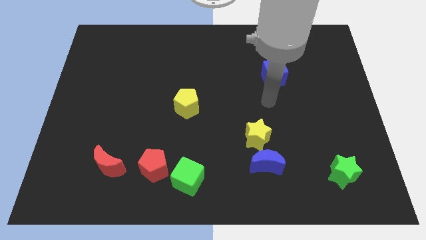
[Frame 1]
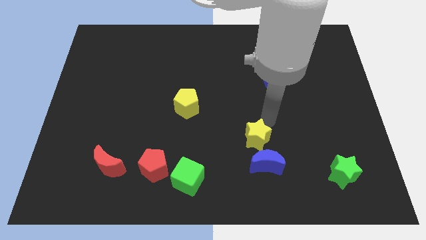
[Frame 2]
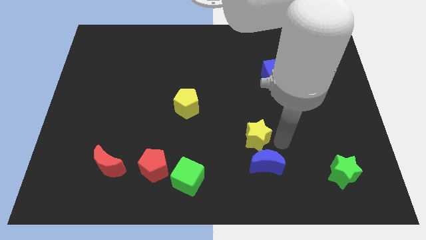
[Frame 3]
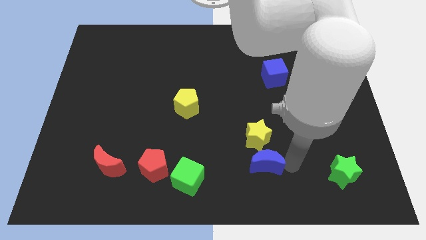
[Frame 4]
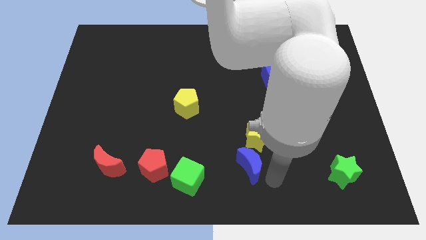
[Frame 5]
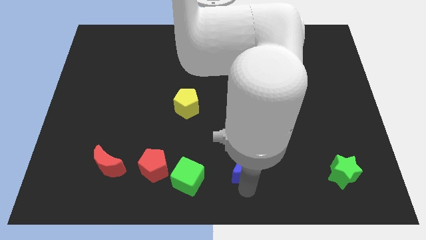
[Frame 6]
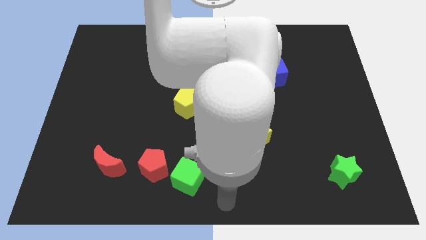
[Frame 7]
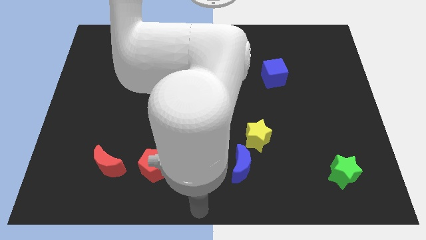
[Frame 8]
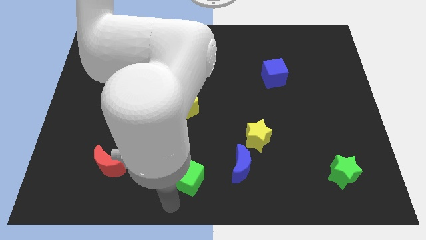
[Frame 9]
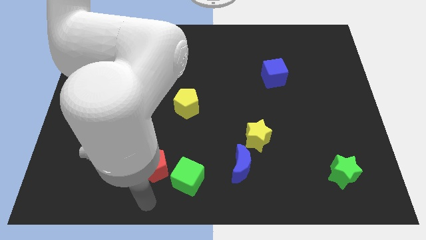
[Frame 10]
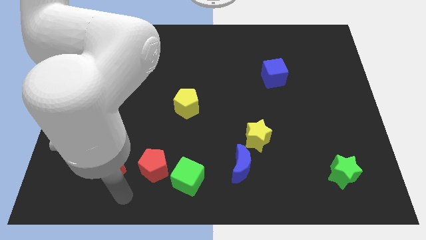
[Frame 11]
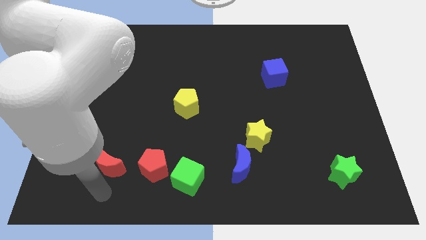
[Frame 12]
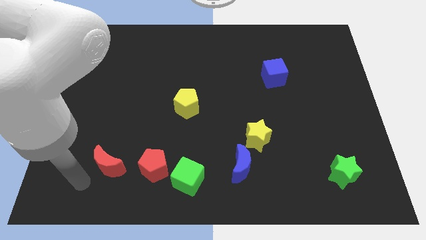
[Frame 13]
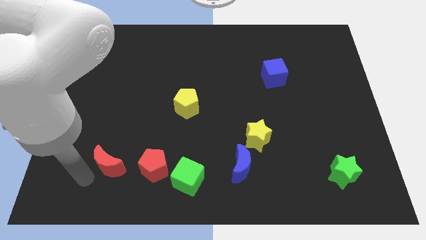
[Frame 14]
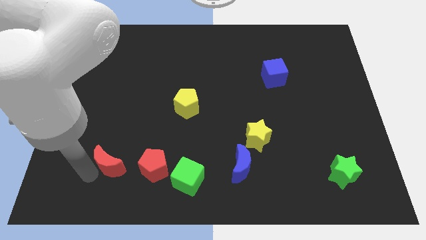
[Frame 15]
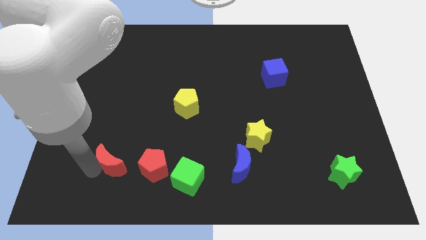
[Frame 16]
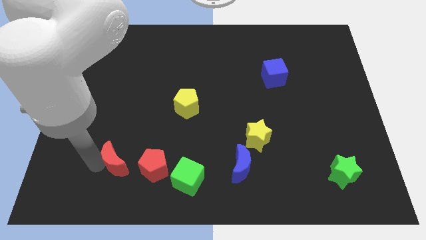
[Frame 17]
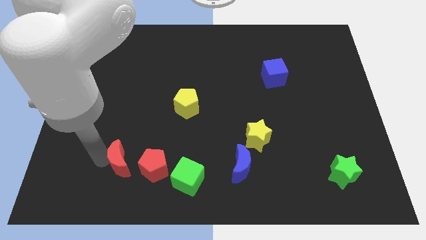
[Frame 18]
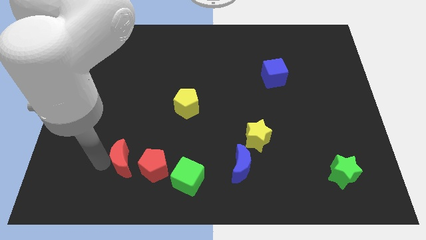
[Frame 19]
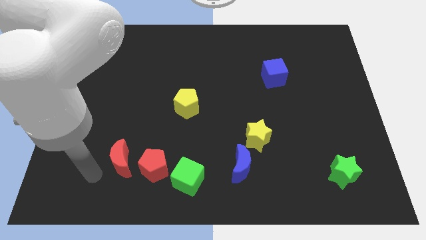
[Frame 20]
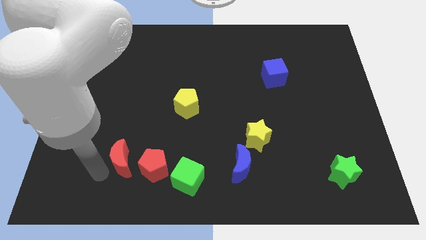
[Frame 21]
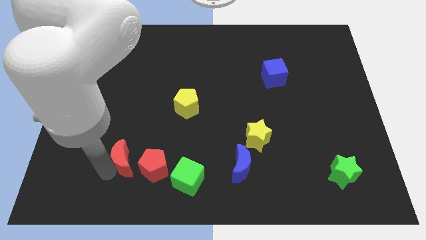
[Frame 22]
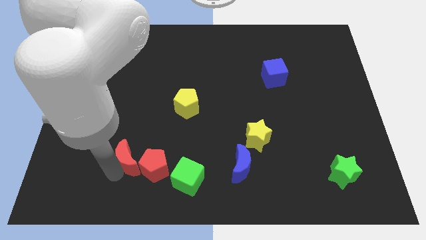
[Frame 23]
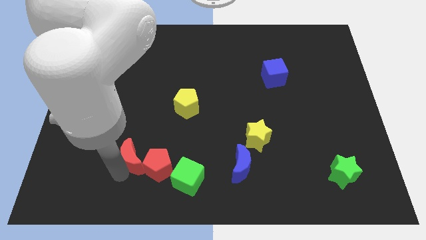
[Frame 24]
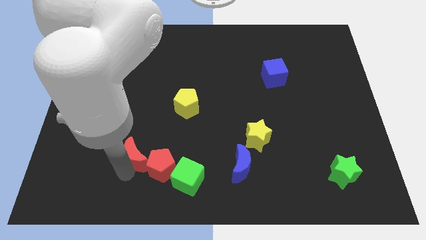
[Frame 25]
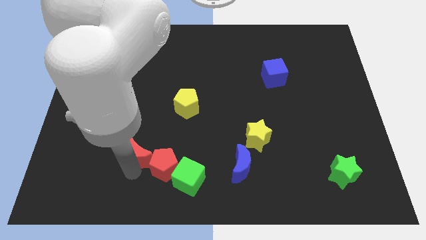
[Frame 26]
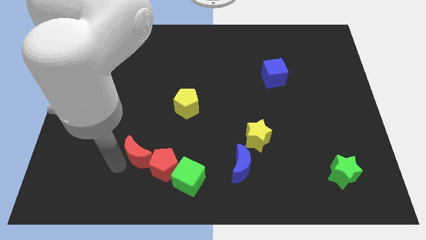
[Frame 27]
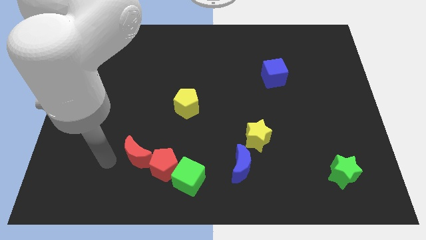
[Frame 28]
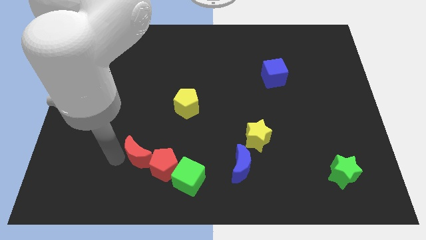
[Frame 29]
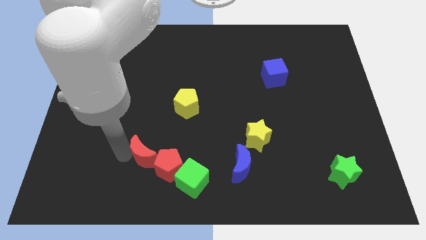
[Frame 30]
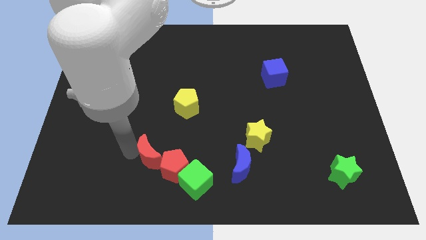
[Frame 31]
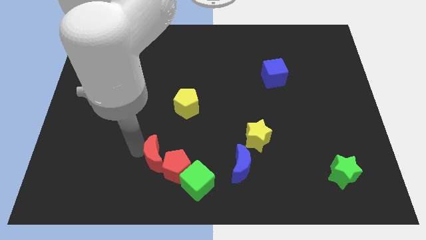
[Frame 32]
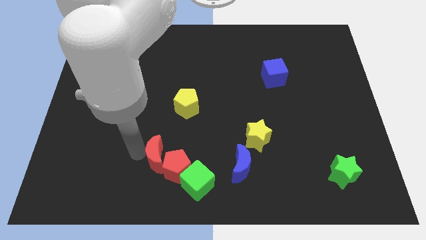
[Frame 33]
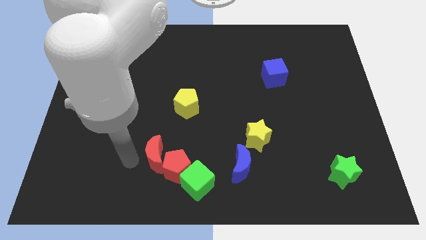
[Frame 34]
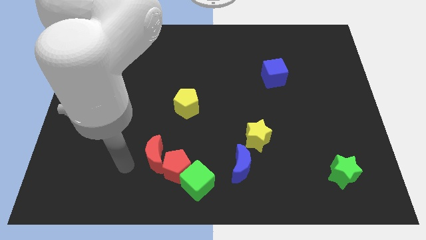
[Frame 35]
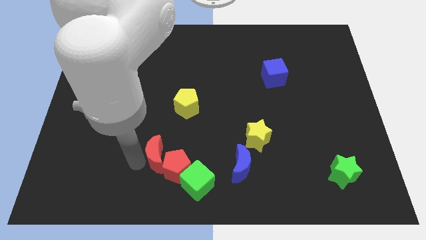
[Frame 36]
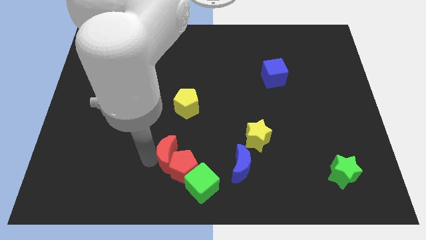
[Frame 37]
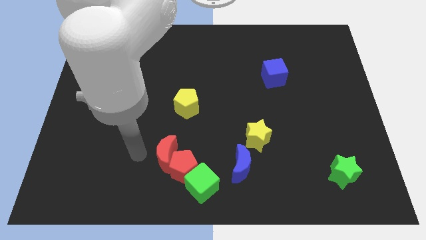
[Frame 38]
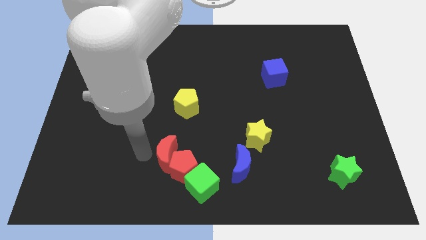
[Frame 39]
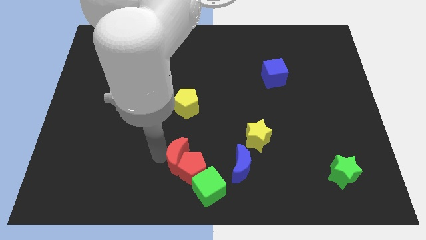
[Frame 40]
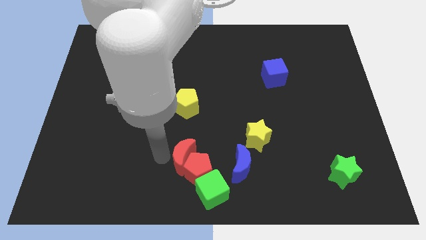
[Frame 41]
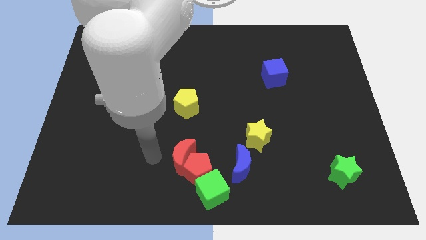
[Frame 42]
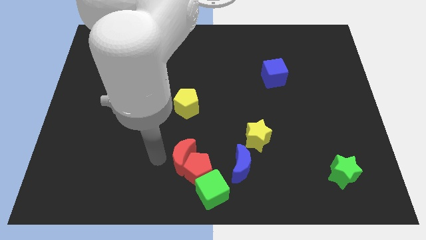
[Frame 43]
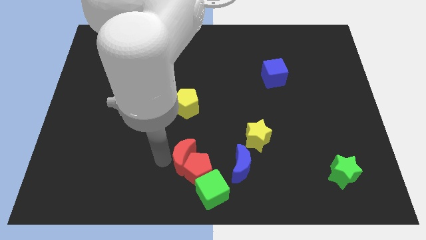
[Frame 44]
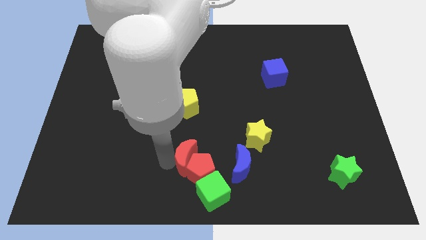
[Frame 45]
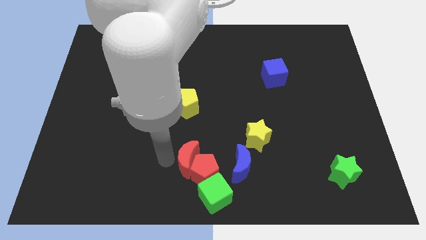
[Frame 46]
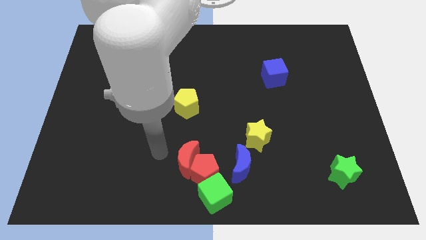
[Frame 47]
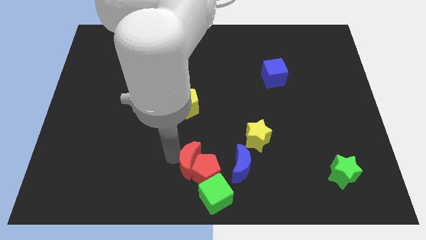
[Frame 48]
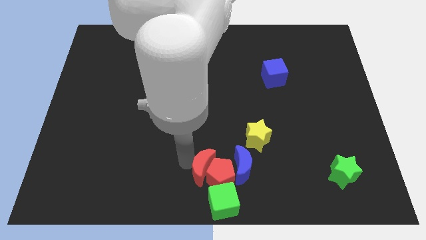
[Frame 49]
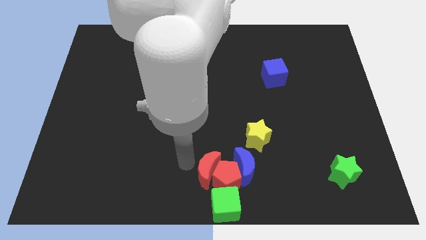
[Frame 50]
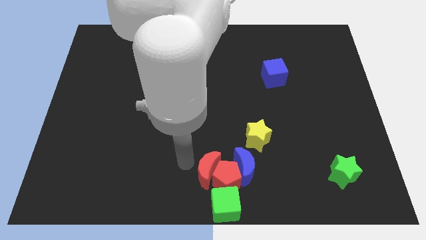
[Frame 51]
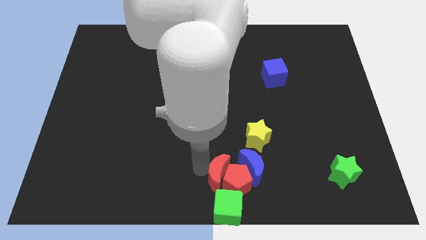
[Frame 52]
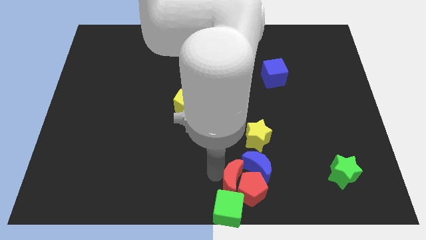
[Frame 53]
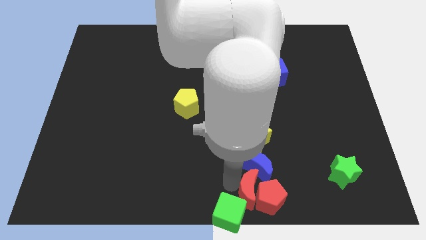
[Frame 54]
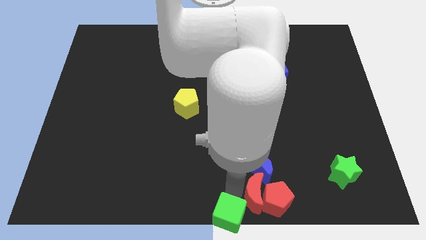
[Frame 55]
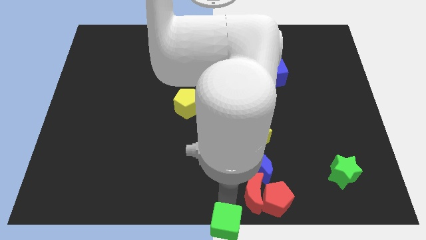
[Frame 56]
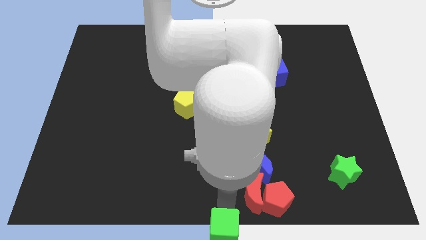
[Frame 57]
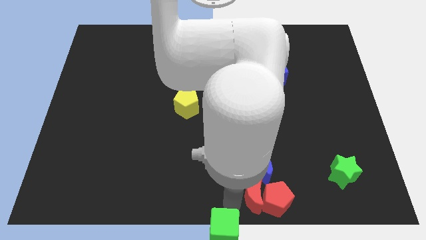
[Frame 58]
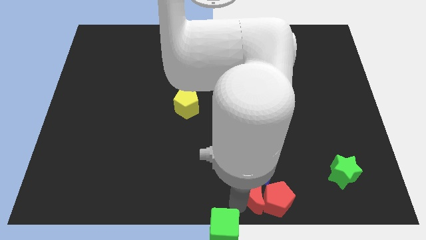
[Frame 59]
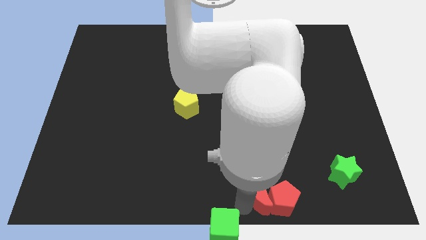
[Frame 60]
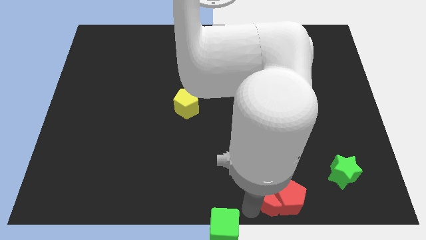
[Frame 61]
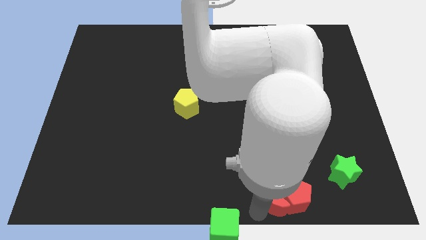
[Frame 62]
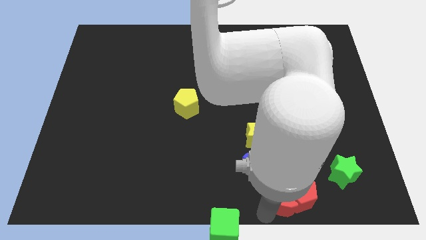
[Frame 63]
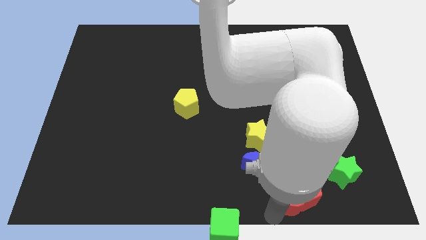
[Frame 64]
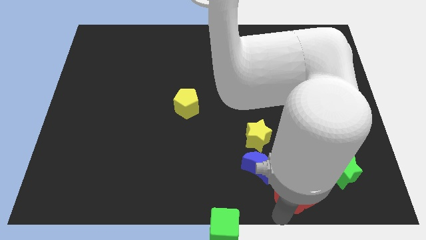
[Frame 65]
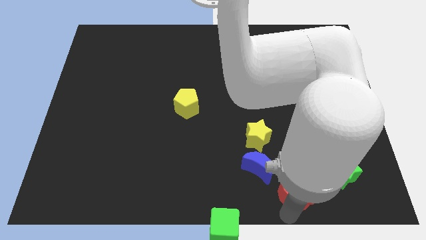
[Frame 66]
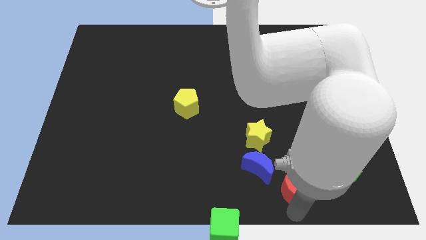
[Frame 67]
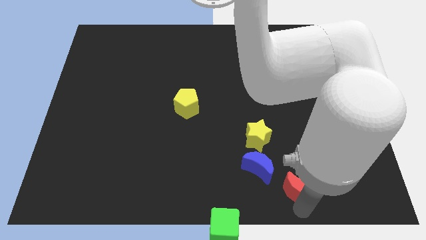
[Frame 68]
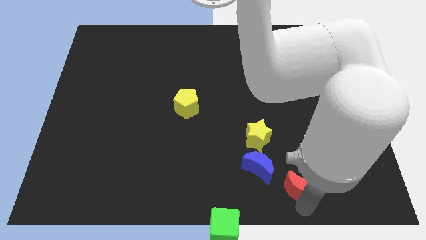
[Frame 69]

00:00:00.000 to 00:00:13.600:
put the red moon just right of the blue moon

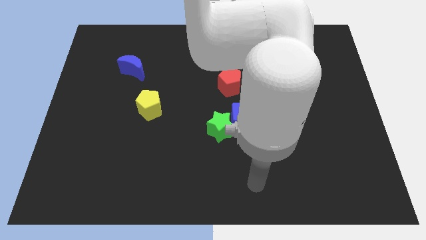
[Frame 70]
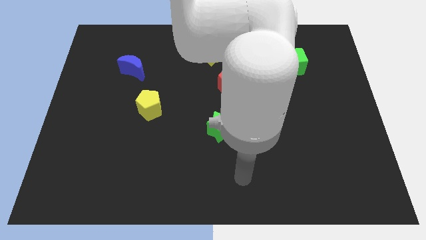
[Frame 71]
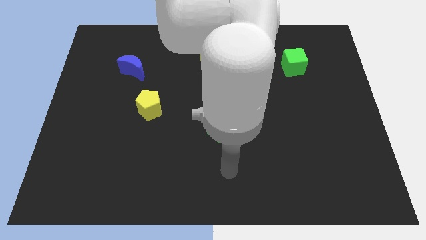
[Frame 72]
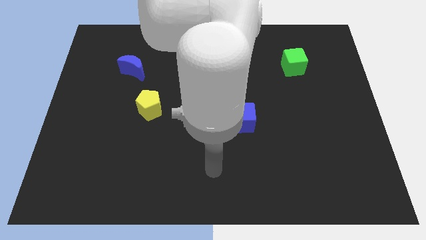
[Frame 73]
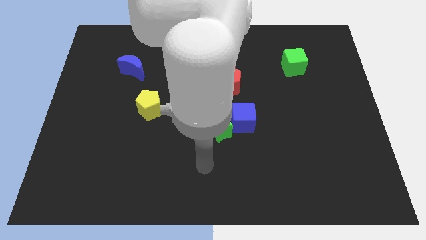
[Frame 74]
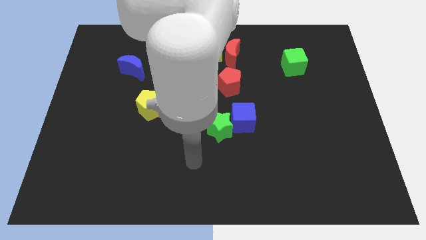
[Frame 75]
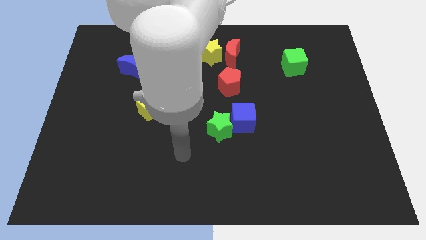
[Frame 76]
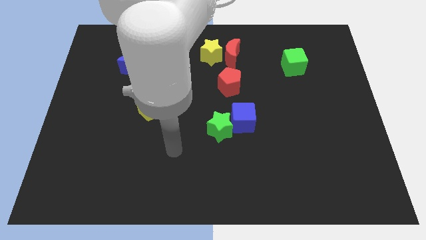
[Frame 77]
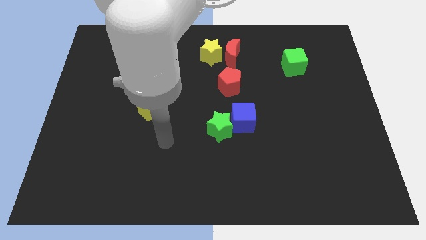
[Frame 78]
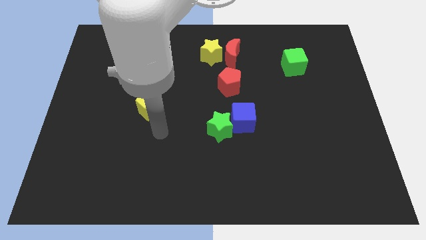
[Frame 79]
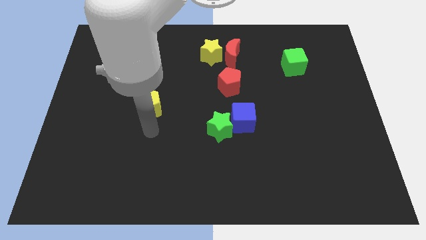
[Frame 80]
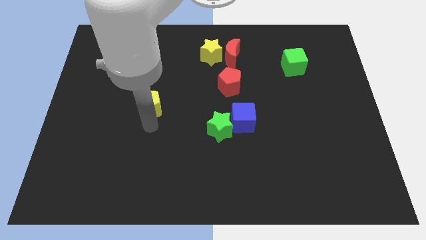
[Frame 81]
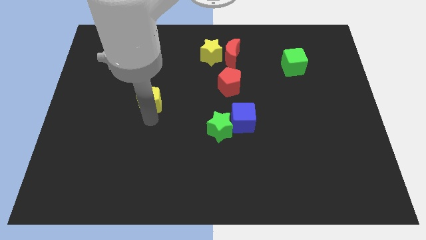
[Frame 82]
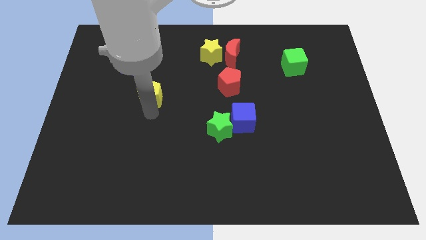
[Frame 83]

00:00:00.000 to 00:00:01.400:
move the yellow pentagon to the bottom right side of the blue moon
